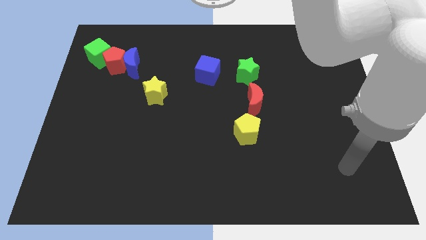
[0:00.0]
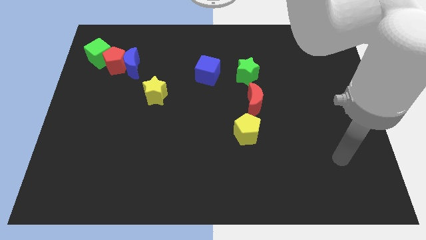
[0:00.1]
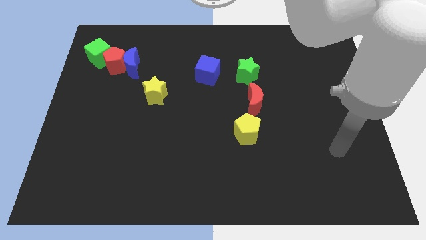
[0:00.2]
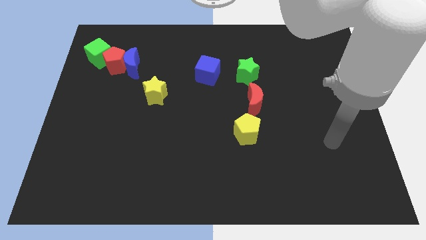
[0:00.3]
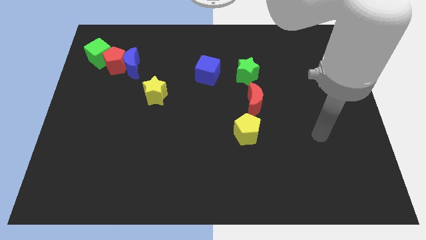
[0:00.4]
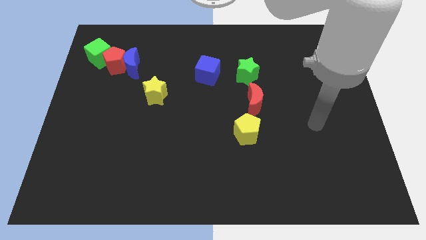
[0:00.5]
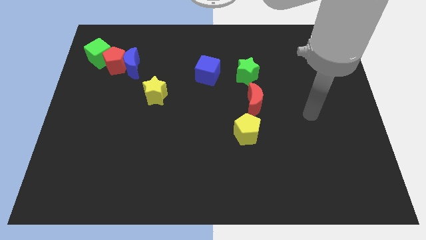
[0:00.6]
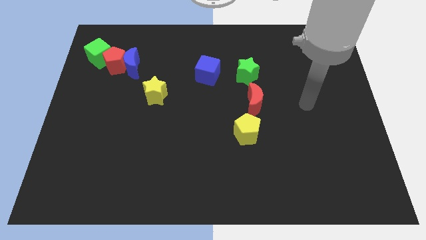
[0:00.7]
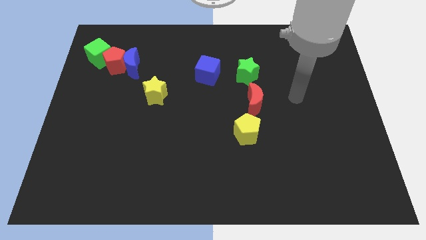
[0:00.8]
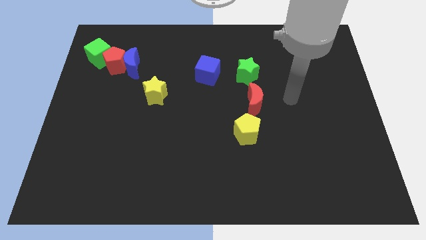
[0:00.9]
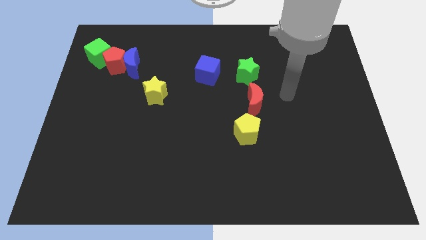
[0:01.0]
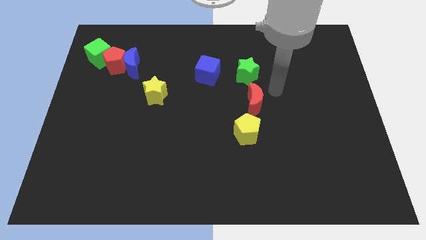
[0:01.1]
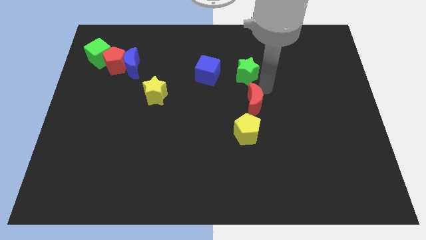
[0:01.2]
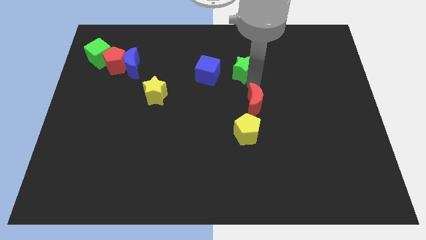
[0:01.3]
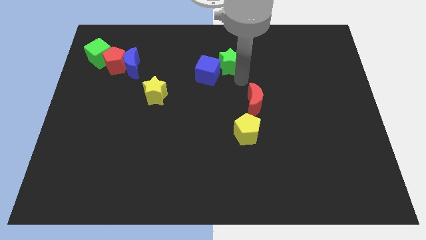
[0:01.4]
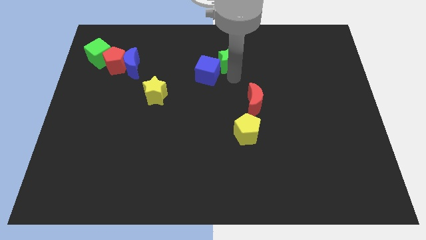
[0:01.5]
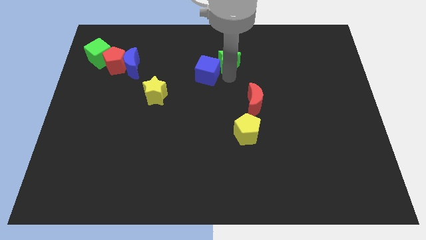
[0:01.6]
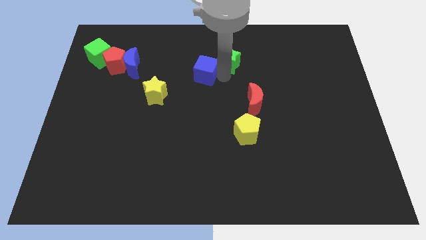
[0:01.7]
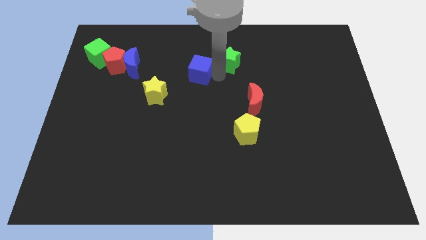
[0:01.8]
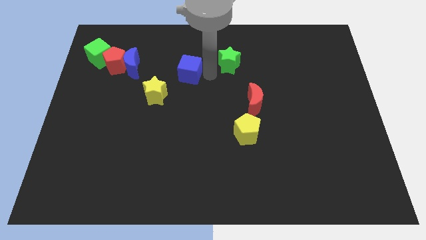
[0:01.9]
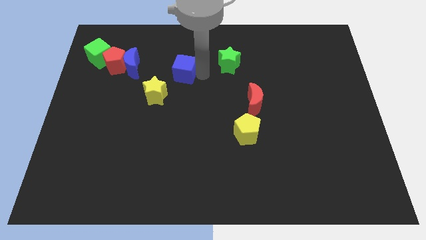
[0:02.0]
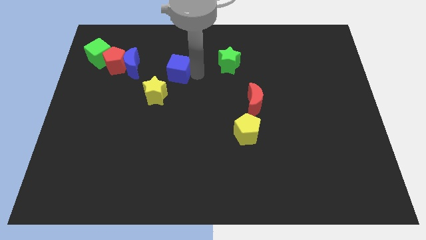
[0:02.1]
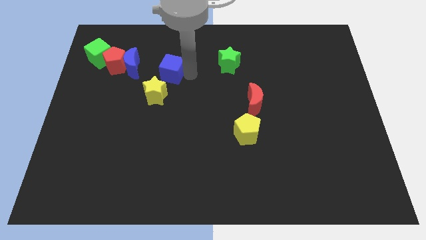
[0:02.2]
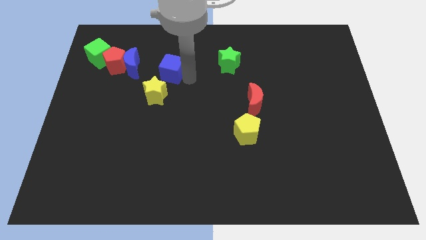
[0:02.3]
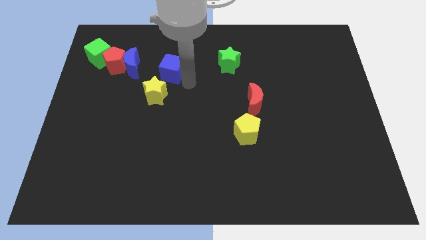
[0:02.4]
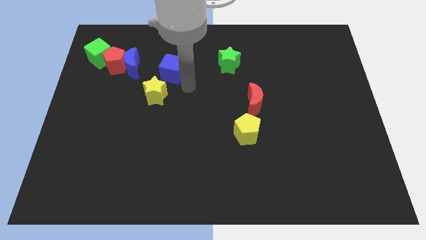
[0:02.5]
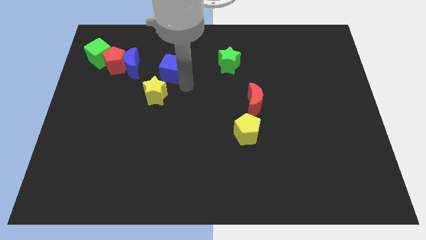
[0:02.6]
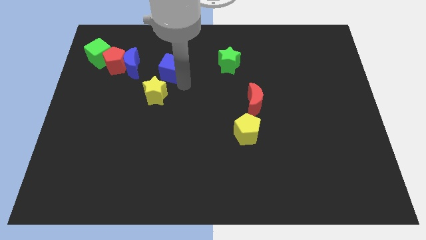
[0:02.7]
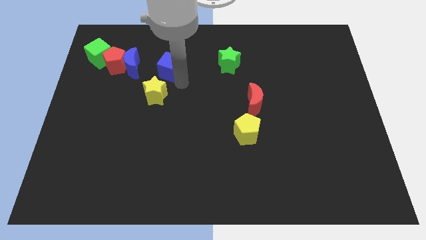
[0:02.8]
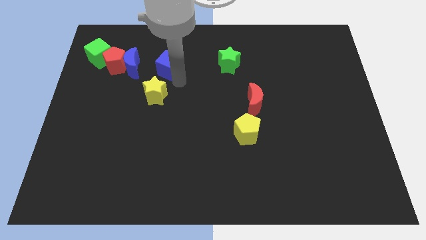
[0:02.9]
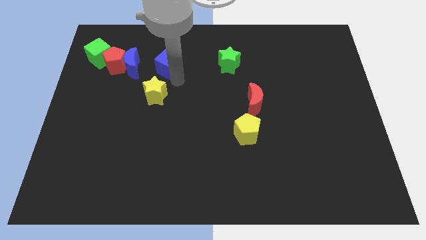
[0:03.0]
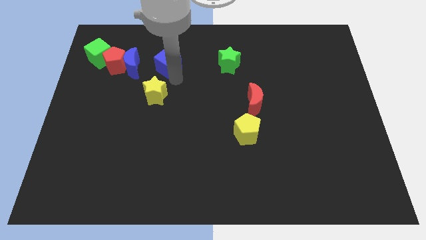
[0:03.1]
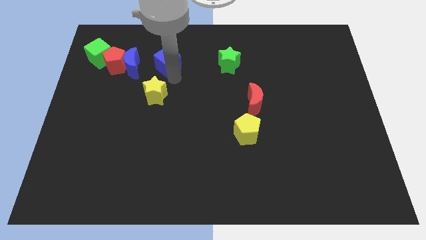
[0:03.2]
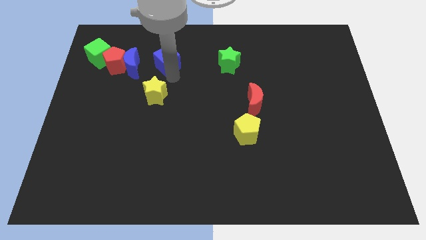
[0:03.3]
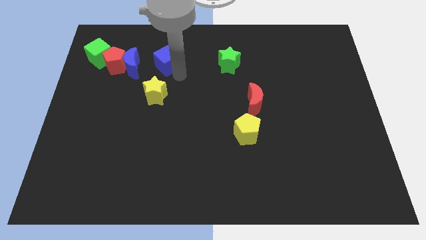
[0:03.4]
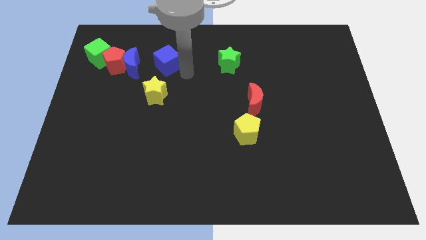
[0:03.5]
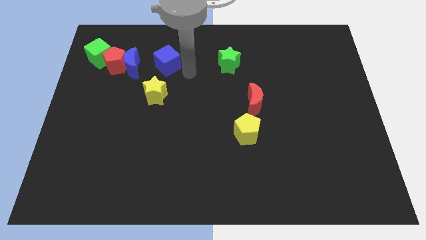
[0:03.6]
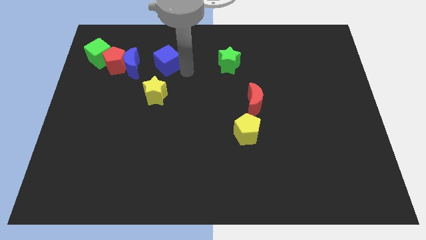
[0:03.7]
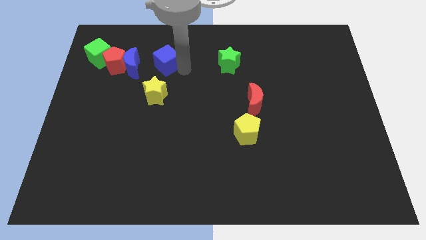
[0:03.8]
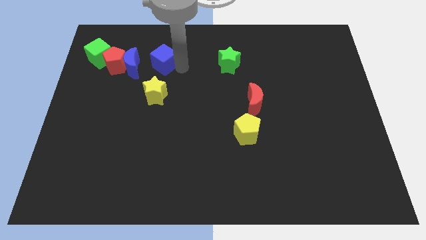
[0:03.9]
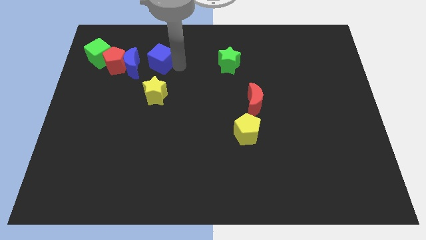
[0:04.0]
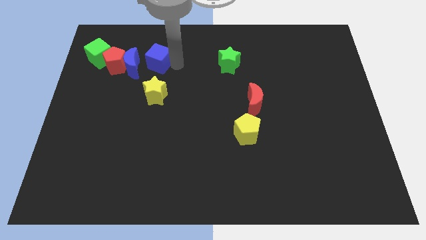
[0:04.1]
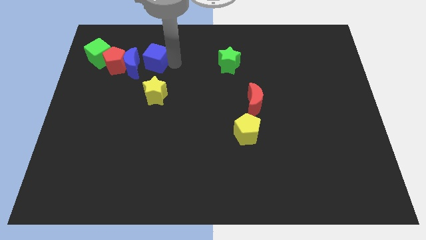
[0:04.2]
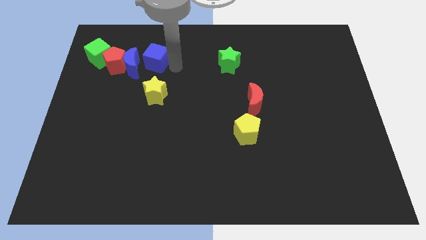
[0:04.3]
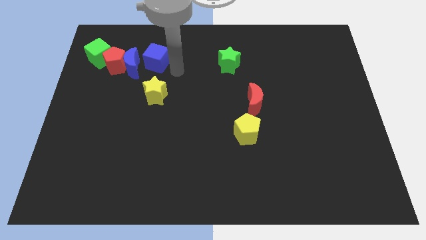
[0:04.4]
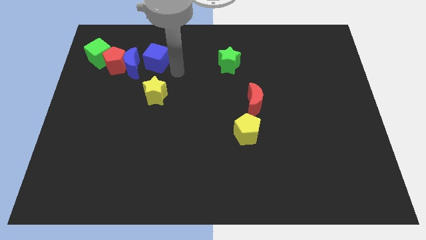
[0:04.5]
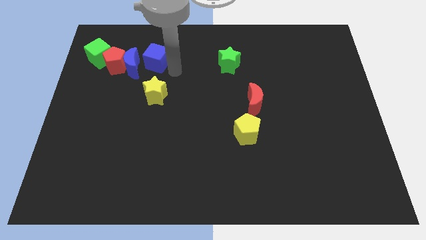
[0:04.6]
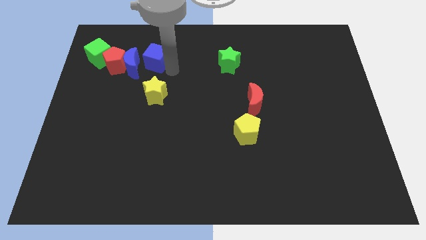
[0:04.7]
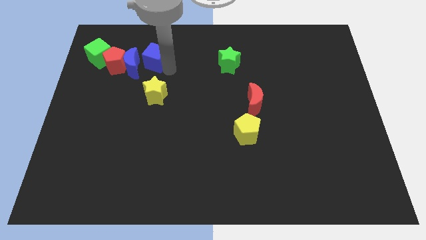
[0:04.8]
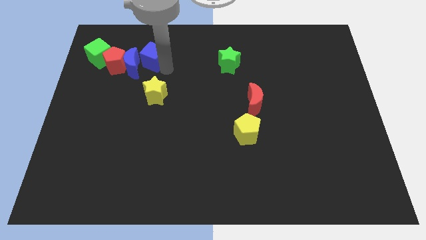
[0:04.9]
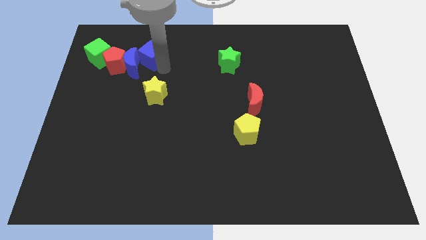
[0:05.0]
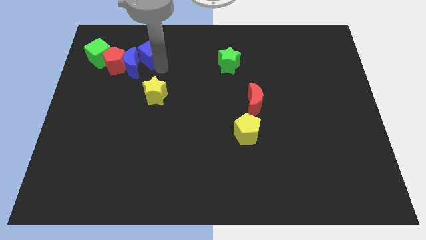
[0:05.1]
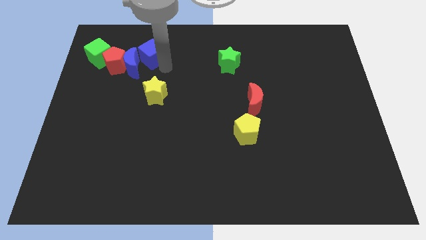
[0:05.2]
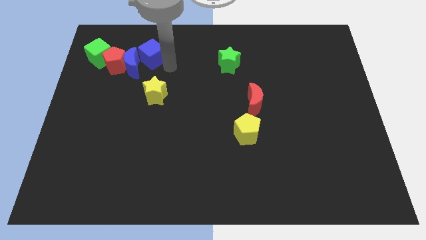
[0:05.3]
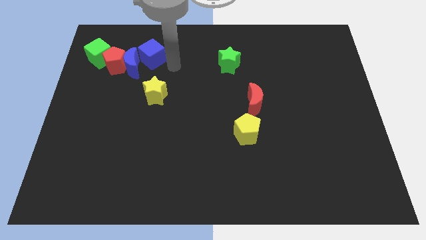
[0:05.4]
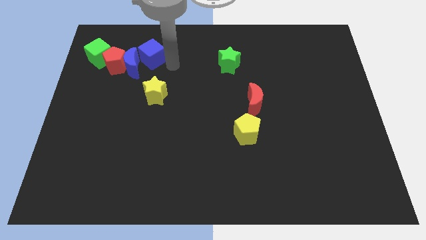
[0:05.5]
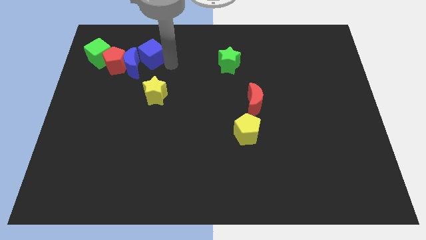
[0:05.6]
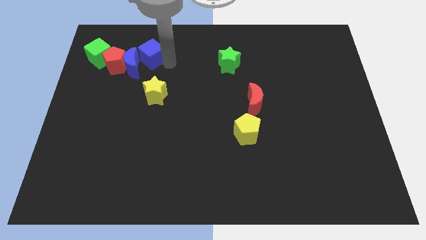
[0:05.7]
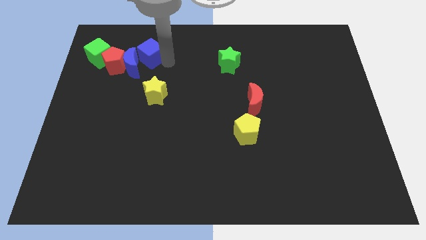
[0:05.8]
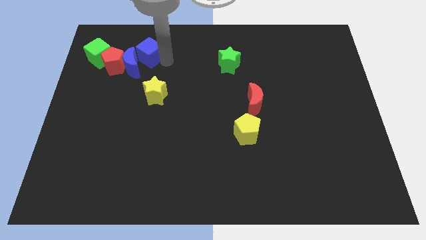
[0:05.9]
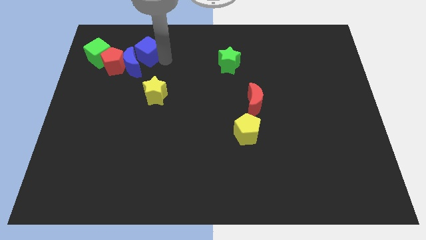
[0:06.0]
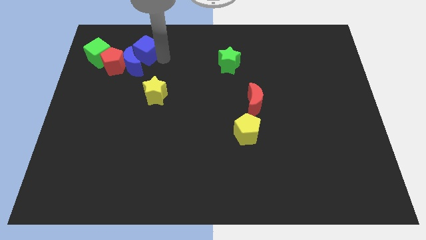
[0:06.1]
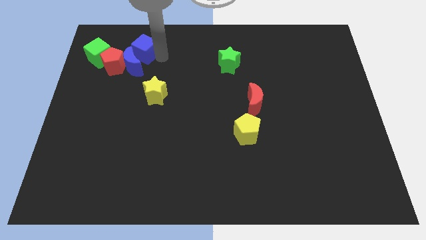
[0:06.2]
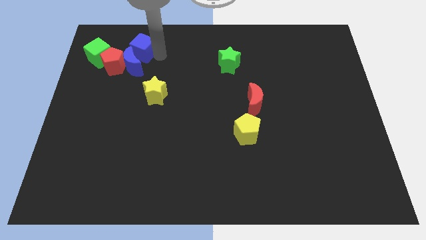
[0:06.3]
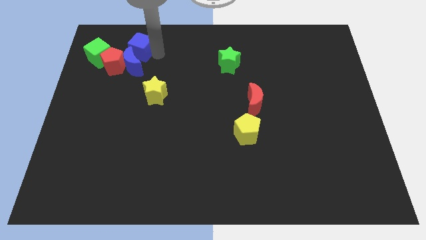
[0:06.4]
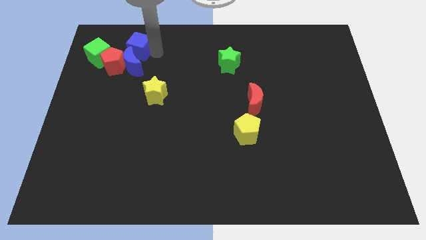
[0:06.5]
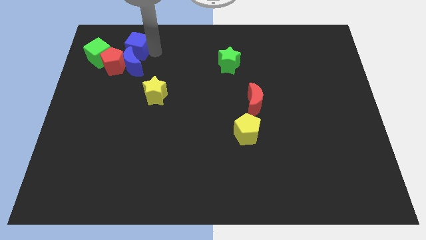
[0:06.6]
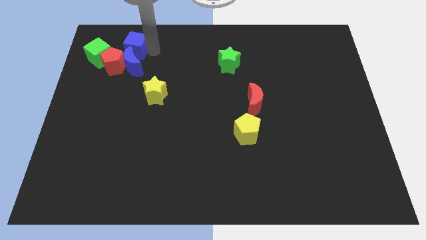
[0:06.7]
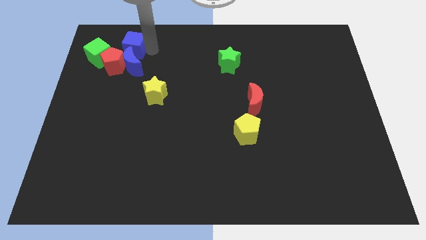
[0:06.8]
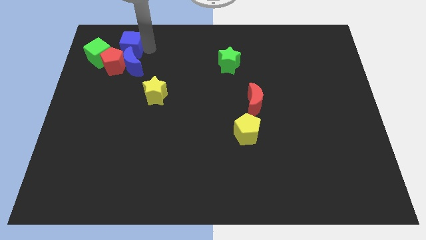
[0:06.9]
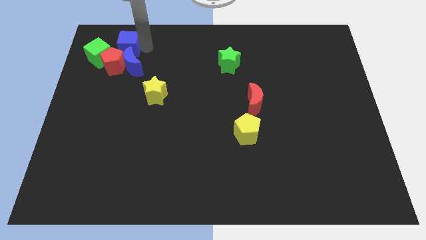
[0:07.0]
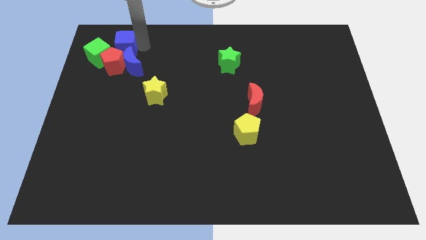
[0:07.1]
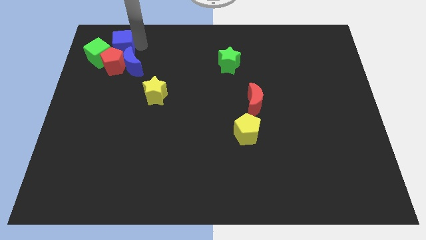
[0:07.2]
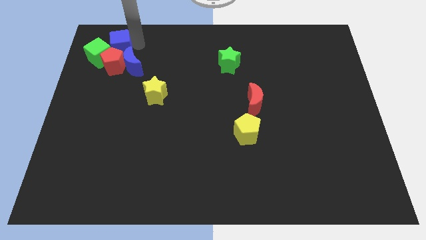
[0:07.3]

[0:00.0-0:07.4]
push the blue cube towards the green cube

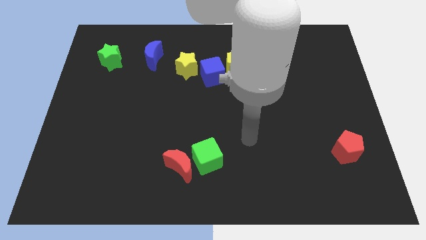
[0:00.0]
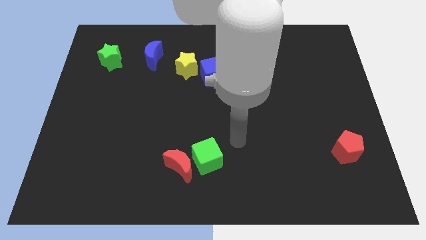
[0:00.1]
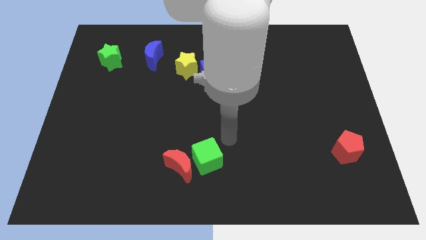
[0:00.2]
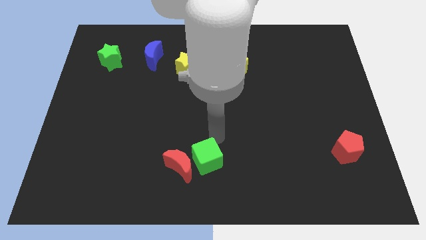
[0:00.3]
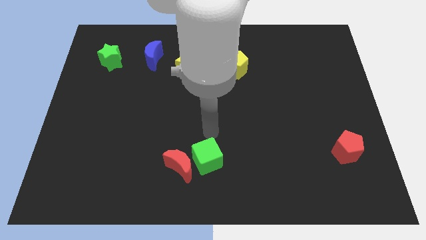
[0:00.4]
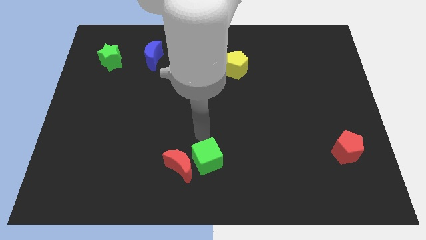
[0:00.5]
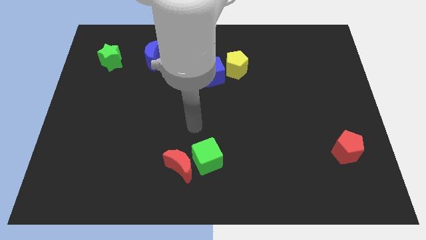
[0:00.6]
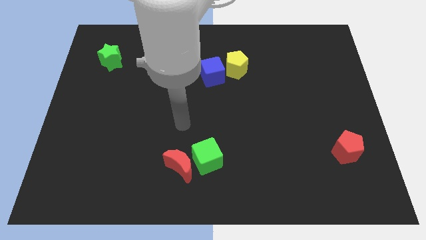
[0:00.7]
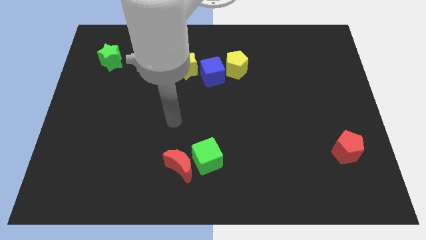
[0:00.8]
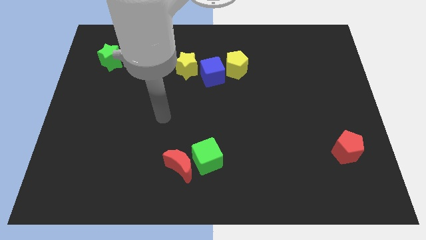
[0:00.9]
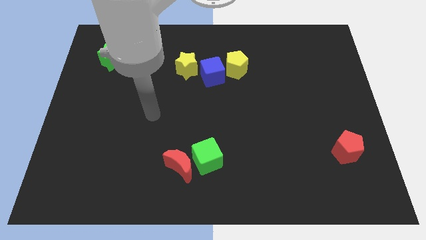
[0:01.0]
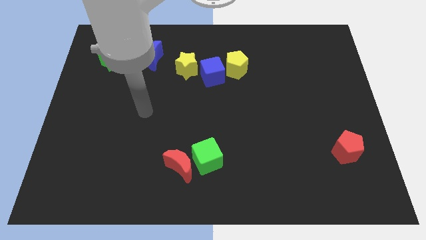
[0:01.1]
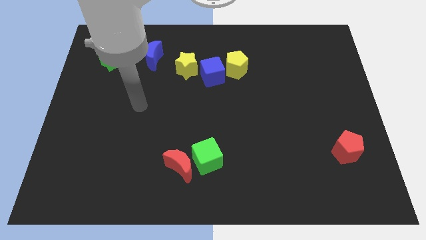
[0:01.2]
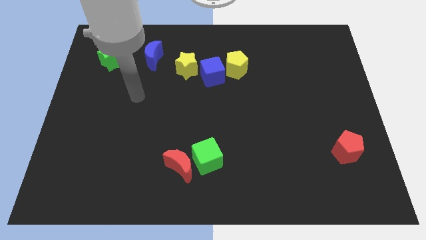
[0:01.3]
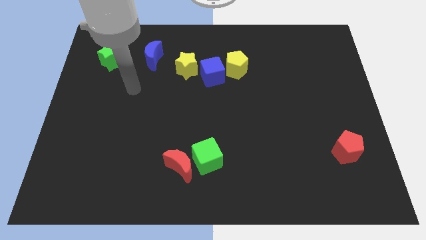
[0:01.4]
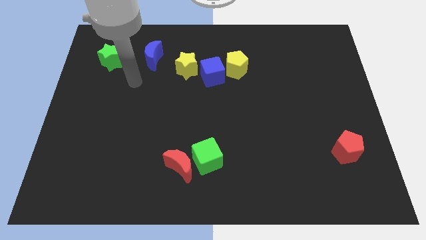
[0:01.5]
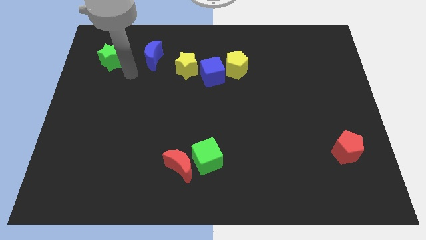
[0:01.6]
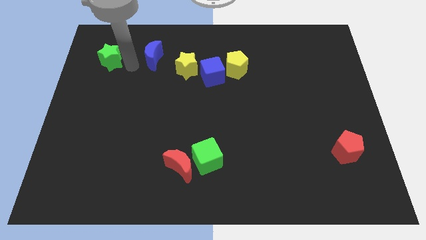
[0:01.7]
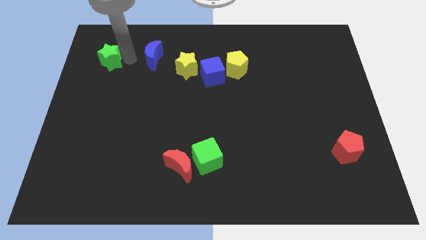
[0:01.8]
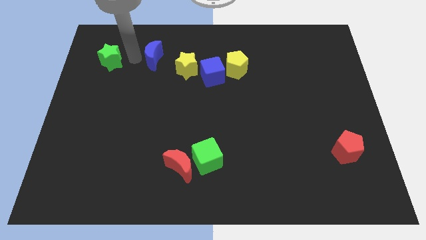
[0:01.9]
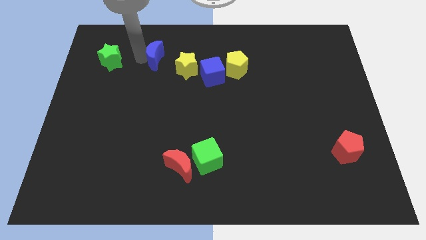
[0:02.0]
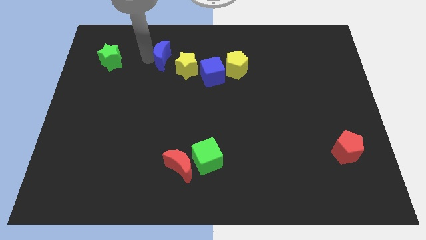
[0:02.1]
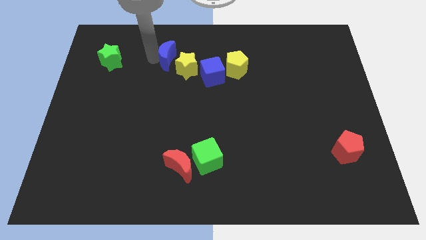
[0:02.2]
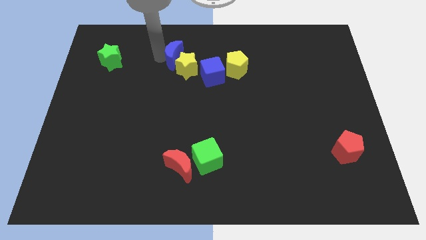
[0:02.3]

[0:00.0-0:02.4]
move the blue moon close to the yellow star
